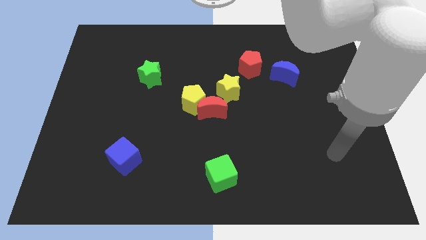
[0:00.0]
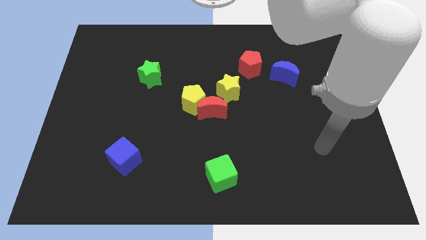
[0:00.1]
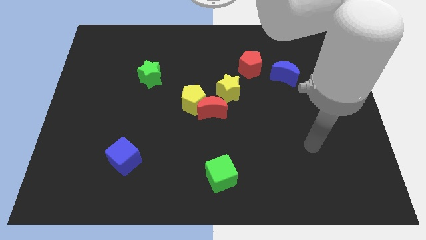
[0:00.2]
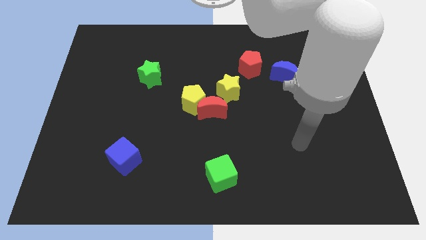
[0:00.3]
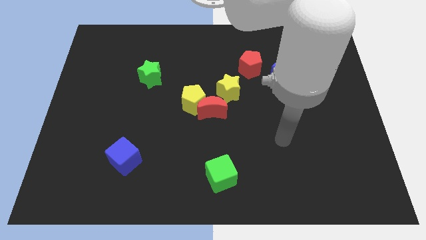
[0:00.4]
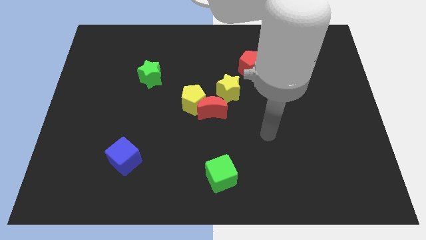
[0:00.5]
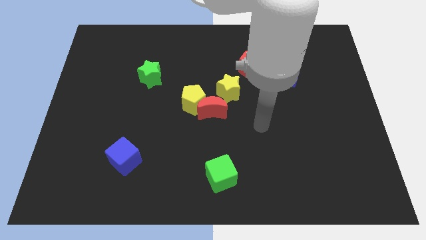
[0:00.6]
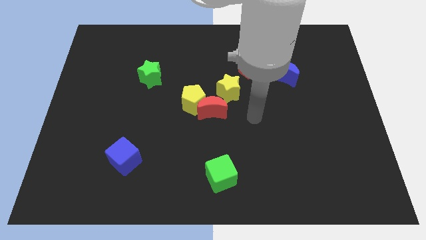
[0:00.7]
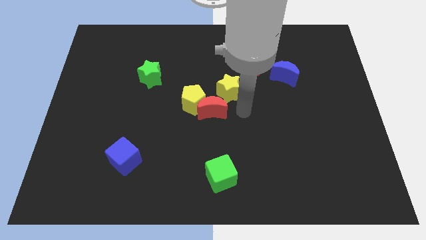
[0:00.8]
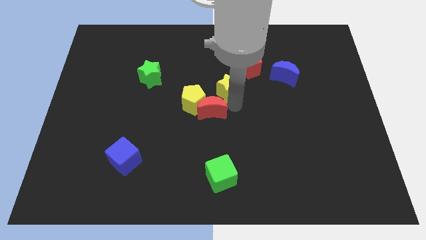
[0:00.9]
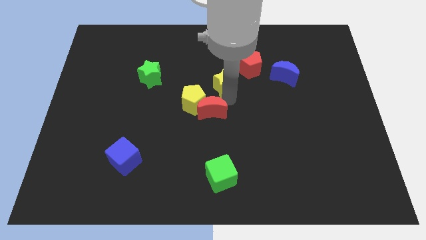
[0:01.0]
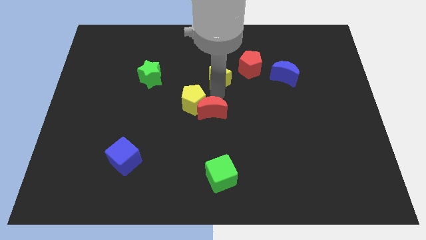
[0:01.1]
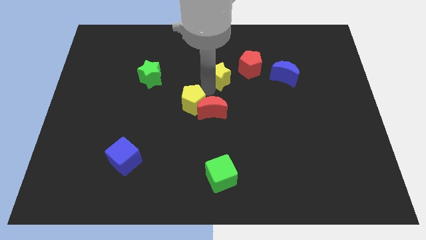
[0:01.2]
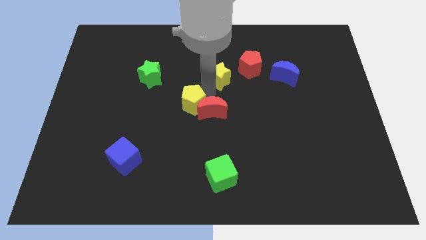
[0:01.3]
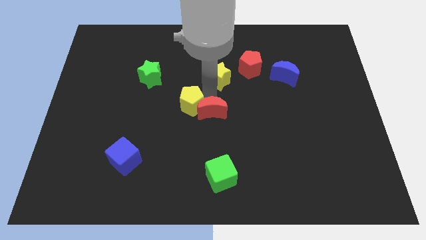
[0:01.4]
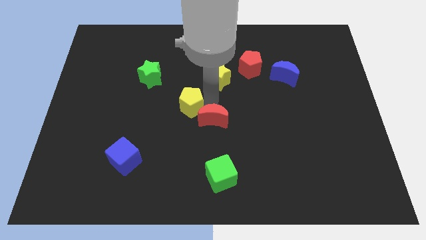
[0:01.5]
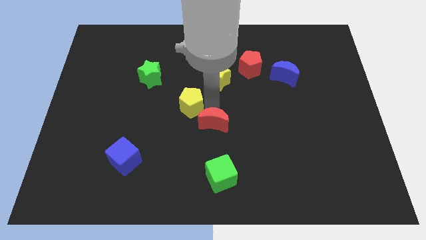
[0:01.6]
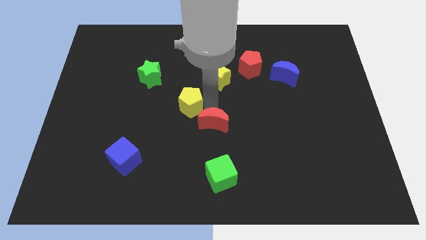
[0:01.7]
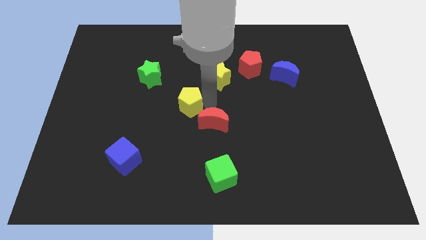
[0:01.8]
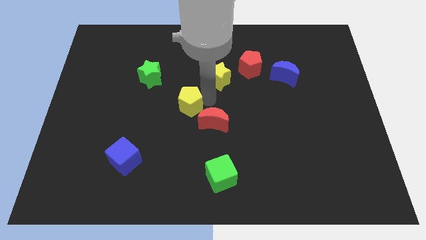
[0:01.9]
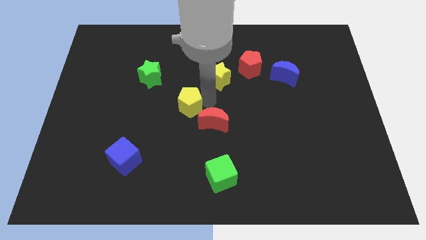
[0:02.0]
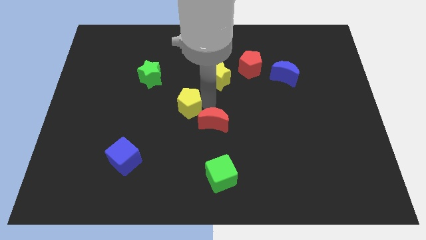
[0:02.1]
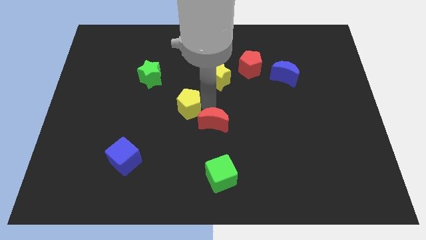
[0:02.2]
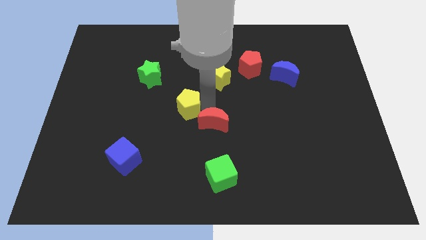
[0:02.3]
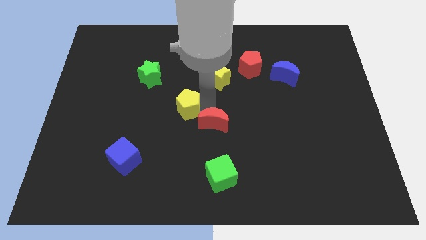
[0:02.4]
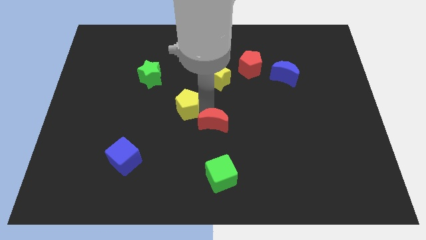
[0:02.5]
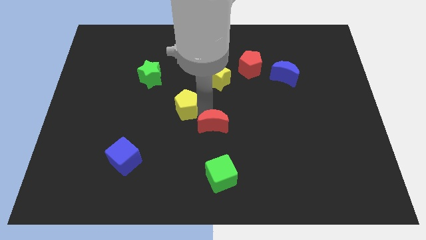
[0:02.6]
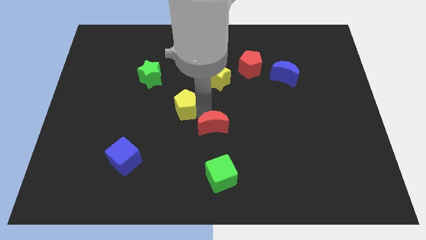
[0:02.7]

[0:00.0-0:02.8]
move the red moon away from the yellow pentagon and yellow star

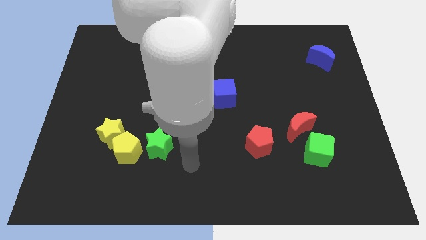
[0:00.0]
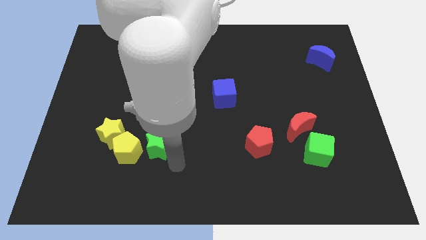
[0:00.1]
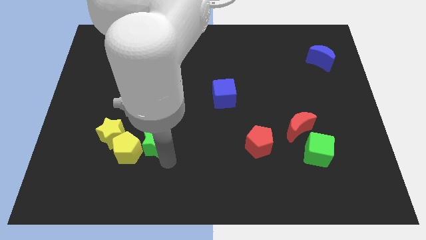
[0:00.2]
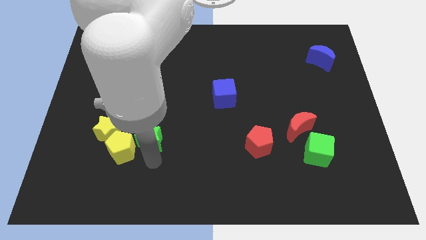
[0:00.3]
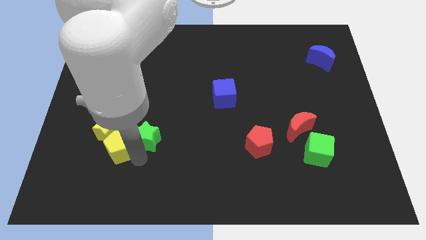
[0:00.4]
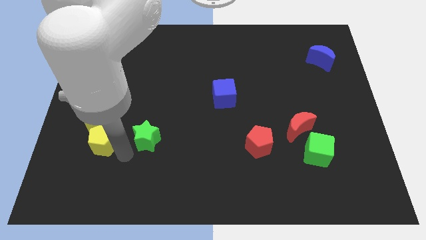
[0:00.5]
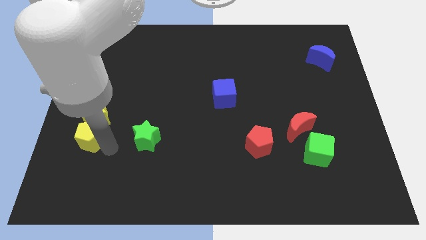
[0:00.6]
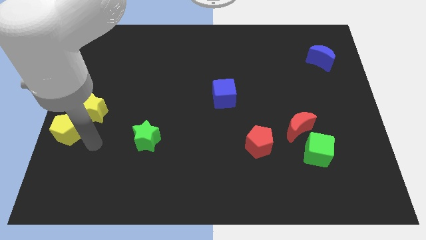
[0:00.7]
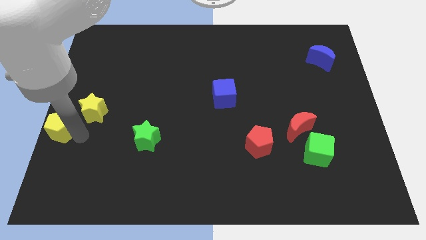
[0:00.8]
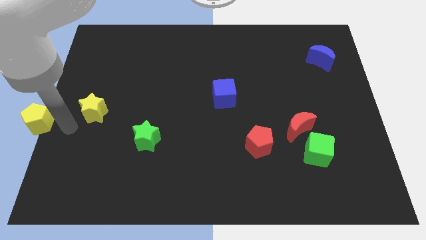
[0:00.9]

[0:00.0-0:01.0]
move the yellow star away from the yellow pentagon

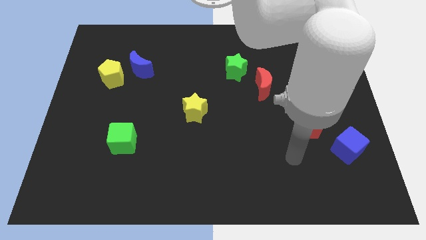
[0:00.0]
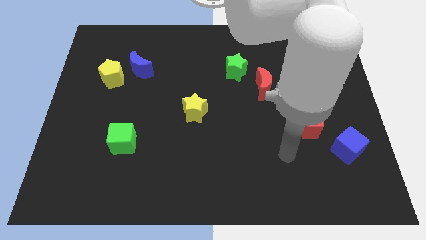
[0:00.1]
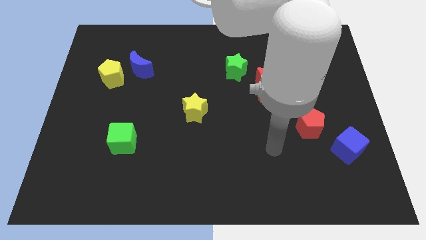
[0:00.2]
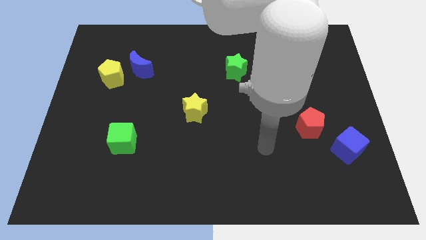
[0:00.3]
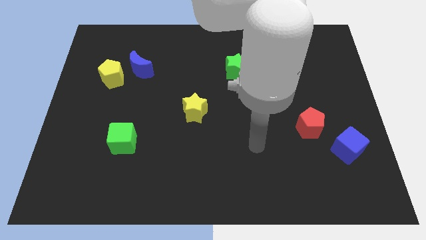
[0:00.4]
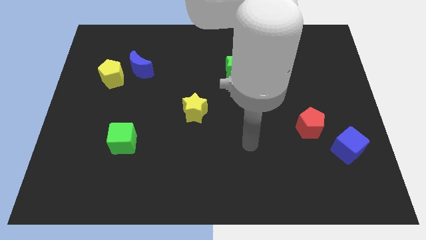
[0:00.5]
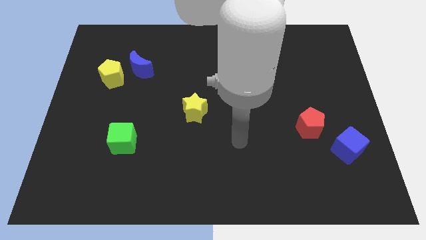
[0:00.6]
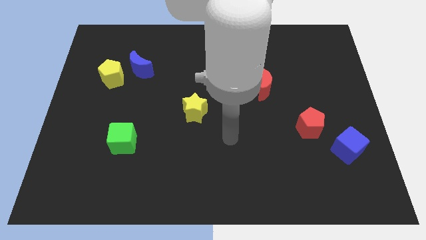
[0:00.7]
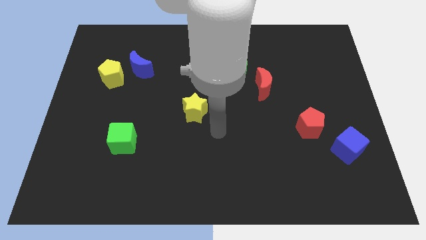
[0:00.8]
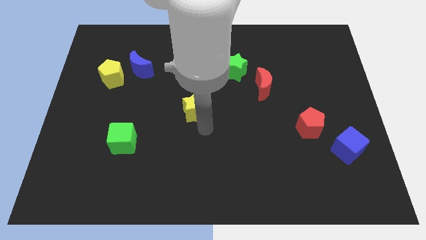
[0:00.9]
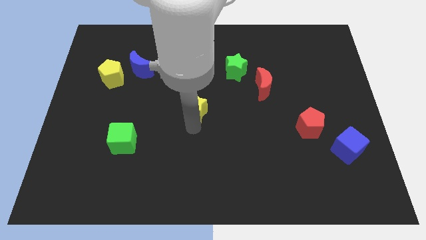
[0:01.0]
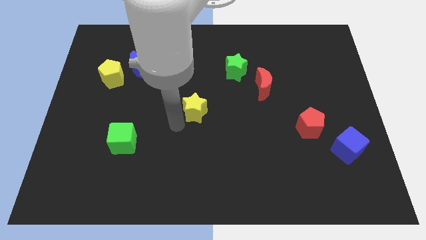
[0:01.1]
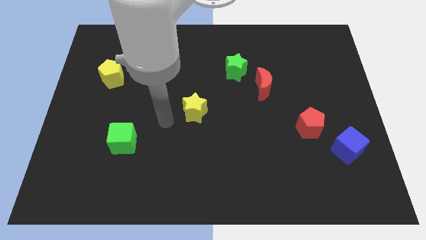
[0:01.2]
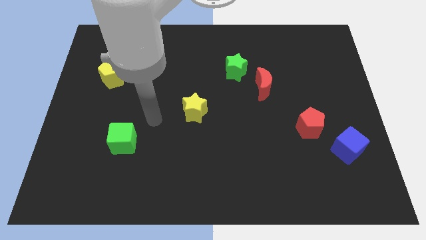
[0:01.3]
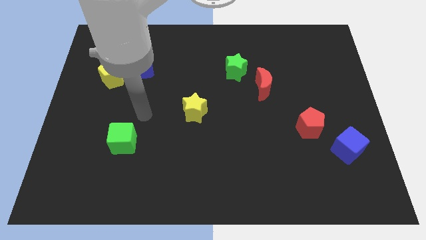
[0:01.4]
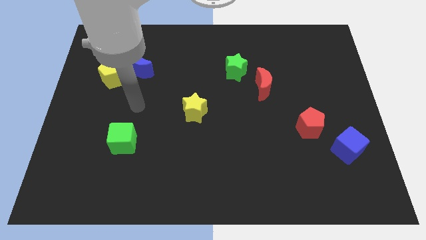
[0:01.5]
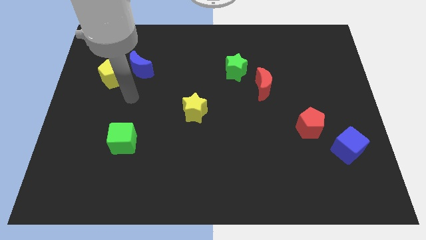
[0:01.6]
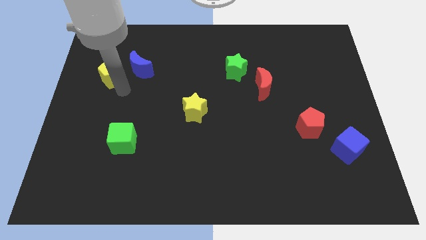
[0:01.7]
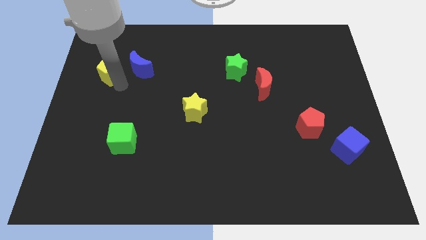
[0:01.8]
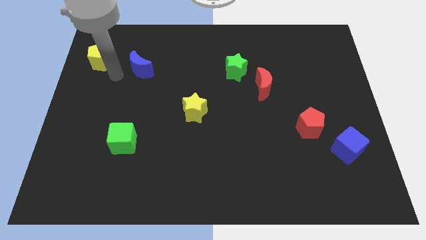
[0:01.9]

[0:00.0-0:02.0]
pull the blue moon apart from the yellow pentagon

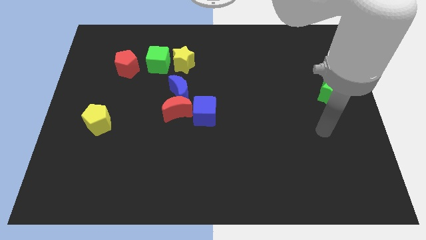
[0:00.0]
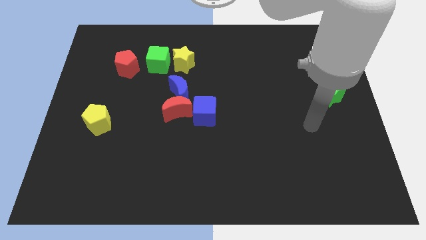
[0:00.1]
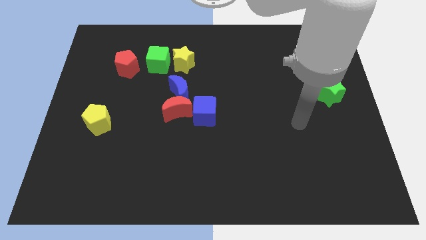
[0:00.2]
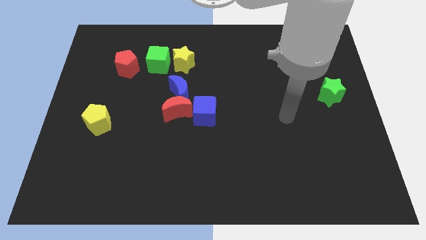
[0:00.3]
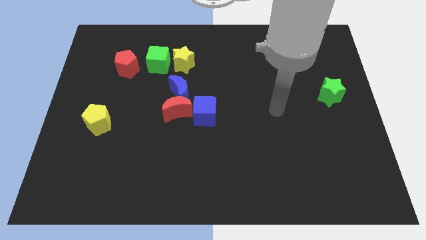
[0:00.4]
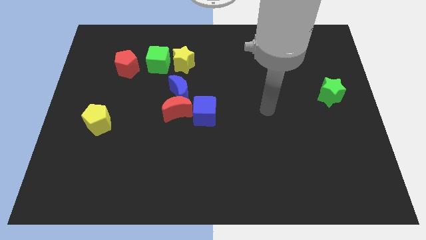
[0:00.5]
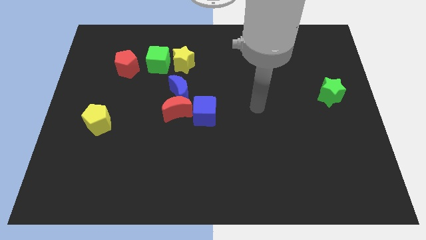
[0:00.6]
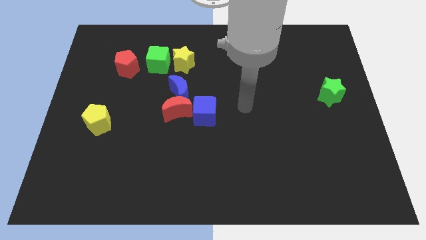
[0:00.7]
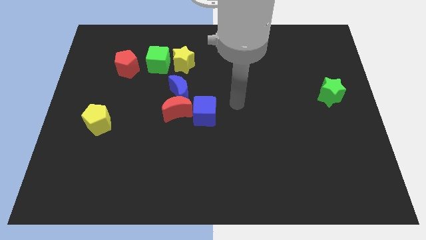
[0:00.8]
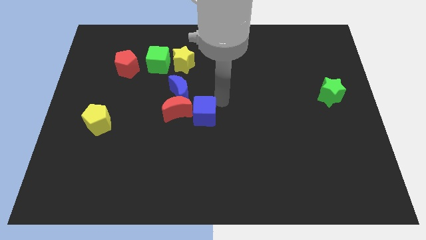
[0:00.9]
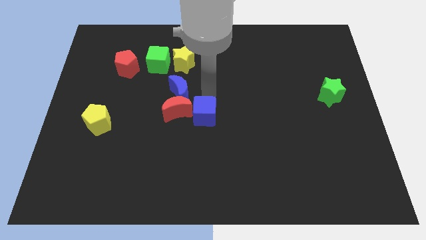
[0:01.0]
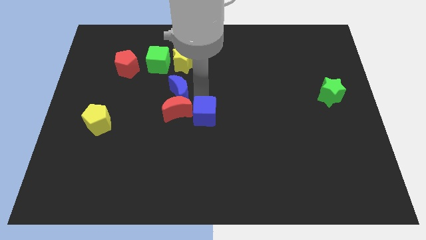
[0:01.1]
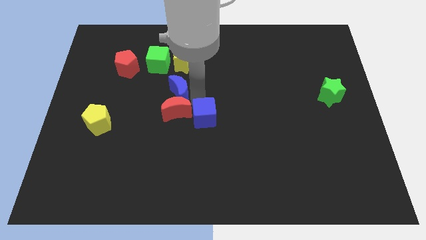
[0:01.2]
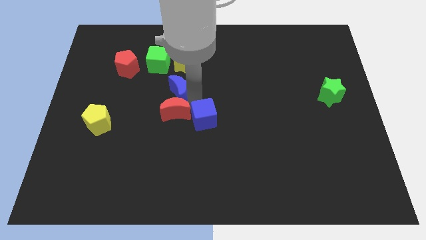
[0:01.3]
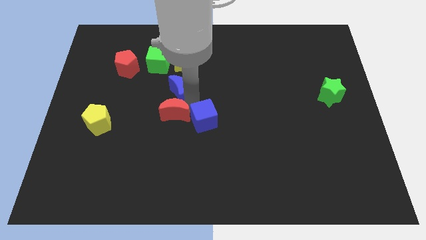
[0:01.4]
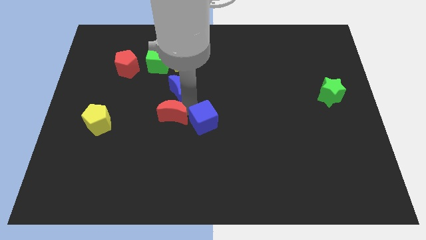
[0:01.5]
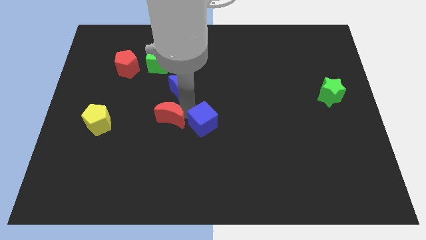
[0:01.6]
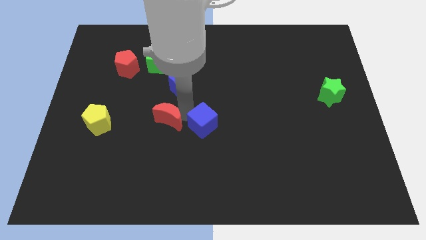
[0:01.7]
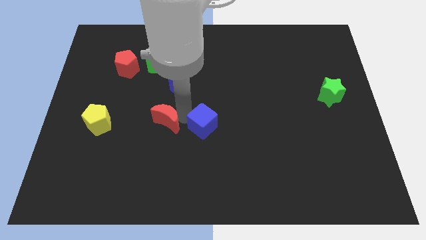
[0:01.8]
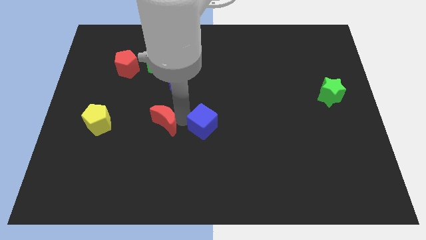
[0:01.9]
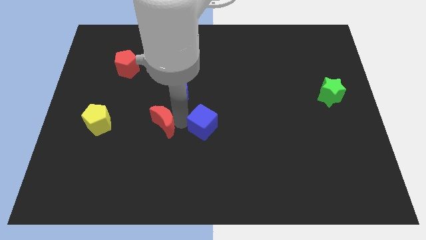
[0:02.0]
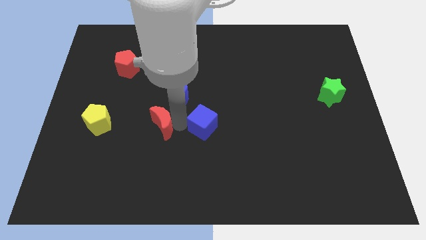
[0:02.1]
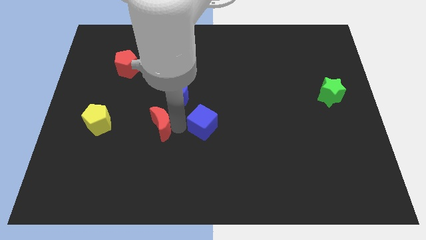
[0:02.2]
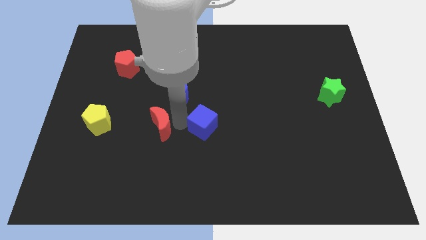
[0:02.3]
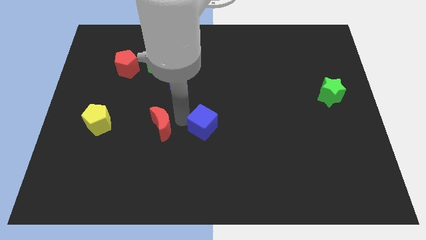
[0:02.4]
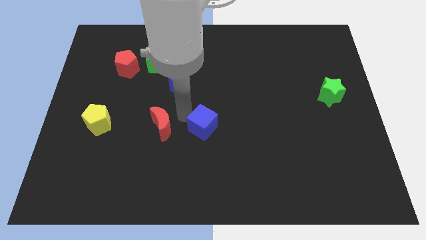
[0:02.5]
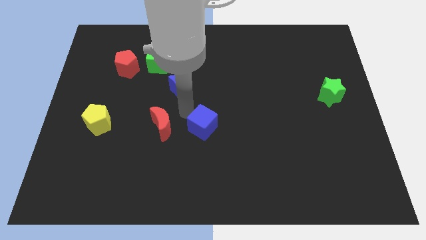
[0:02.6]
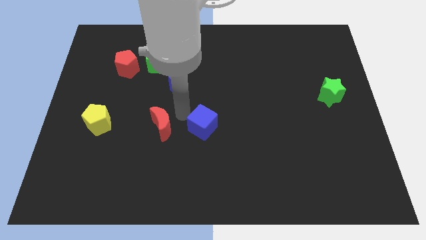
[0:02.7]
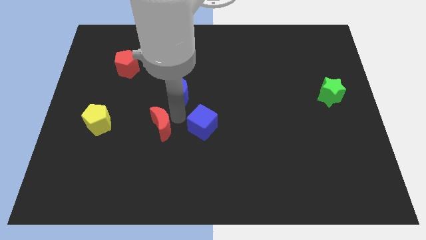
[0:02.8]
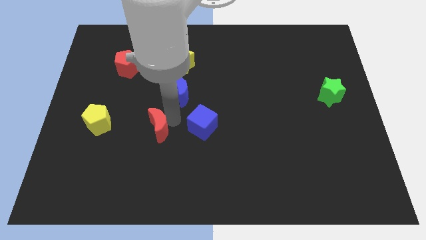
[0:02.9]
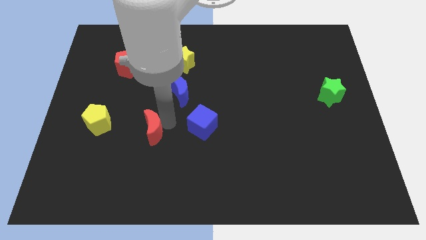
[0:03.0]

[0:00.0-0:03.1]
pull the red moon apart from the blue moon and blue cube

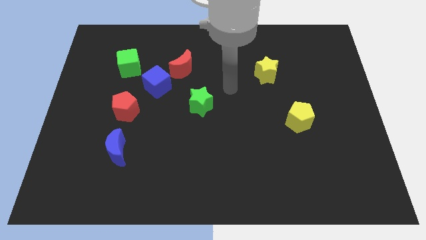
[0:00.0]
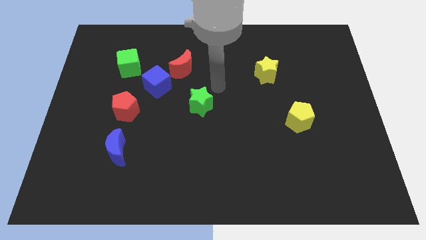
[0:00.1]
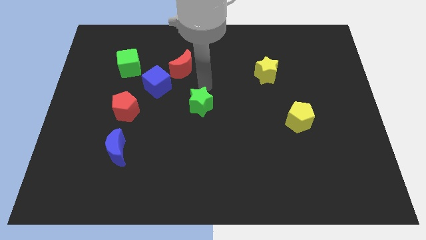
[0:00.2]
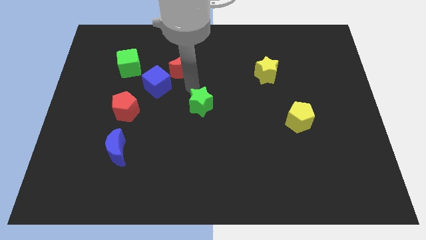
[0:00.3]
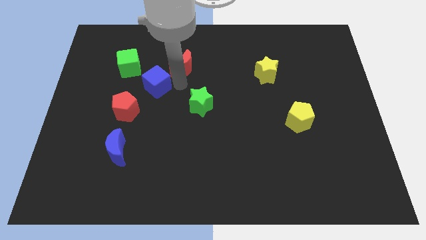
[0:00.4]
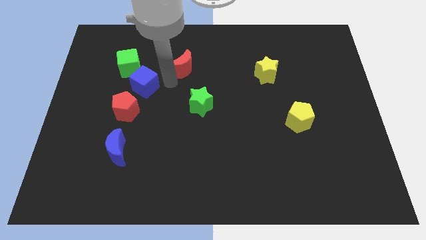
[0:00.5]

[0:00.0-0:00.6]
move the red moon away from the blue cube
